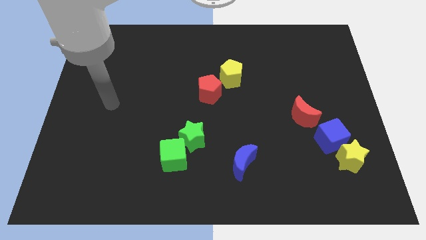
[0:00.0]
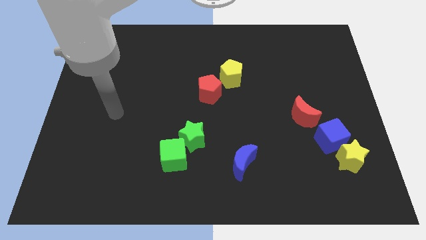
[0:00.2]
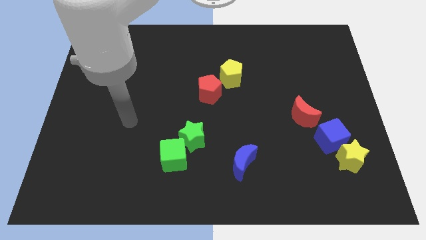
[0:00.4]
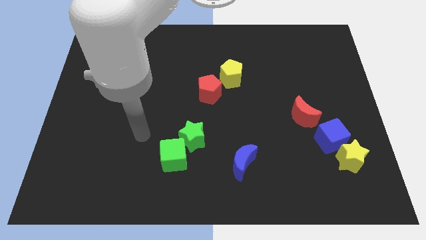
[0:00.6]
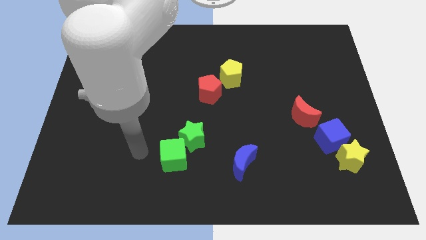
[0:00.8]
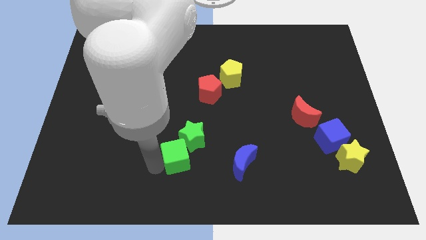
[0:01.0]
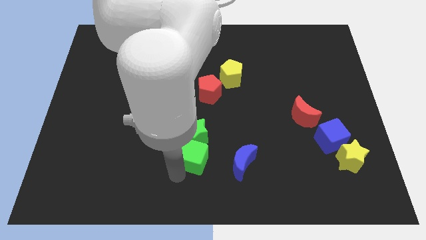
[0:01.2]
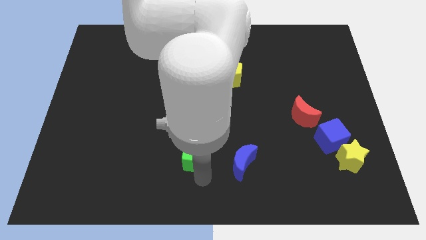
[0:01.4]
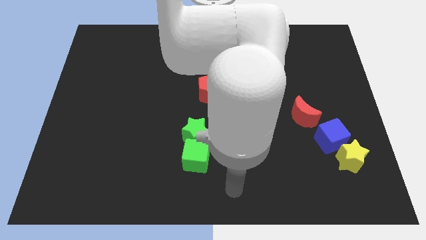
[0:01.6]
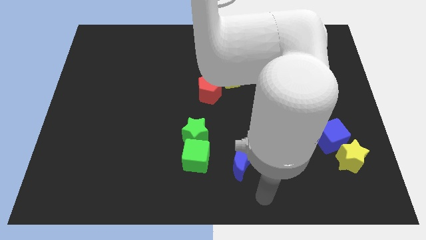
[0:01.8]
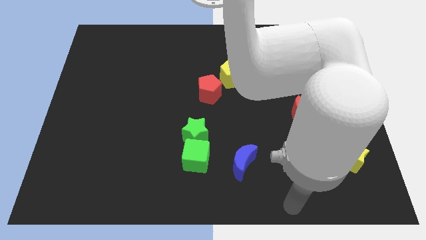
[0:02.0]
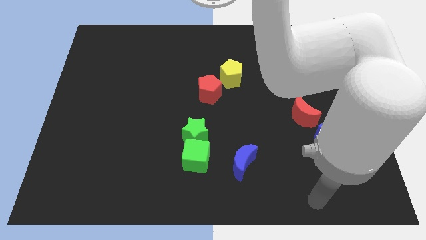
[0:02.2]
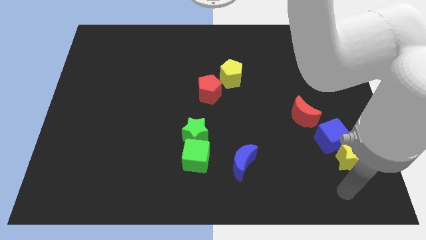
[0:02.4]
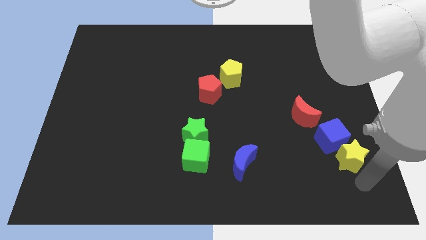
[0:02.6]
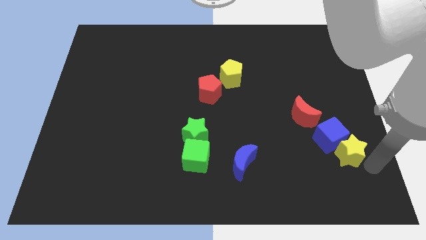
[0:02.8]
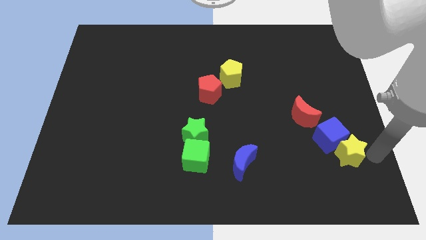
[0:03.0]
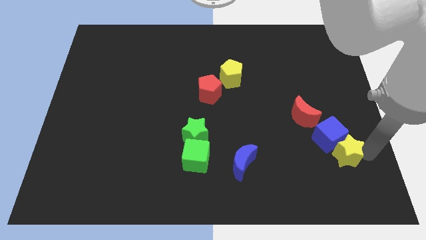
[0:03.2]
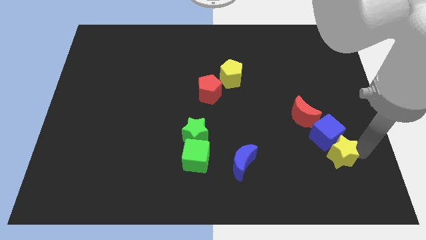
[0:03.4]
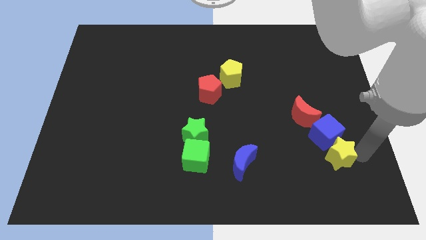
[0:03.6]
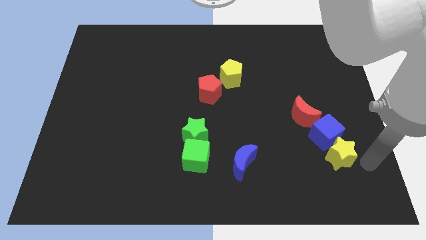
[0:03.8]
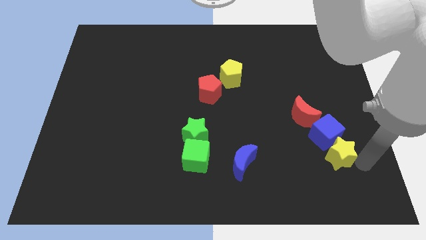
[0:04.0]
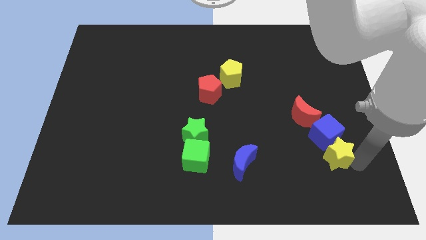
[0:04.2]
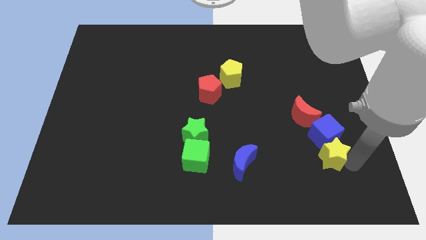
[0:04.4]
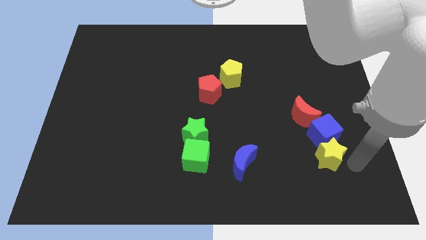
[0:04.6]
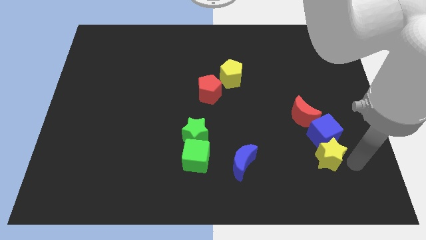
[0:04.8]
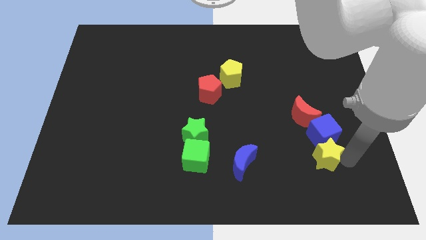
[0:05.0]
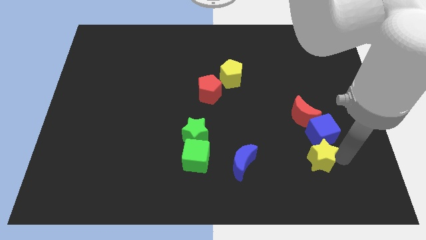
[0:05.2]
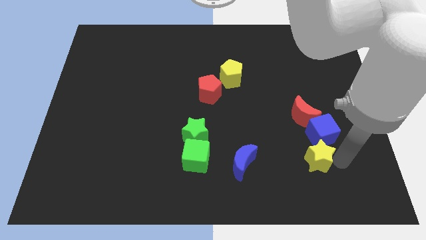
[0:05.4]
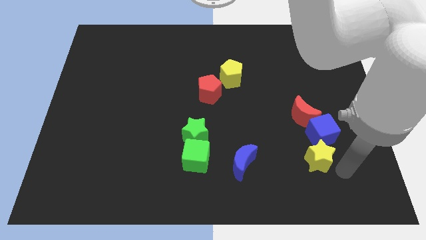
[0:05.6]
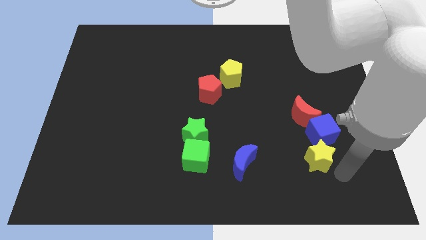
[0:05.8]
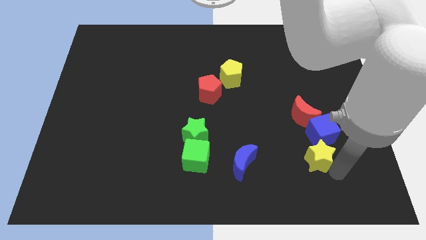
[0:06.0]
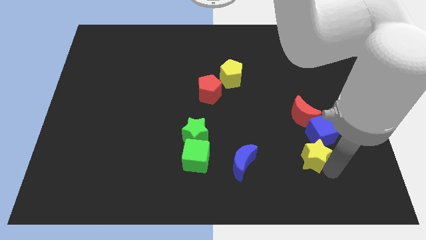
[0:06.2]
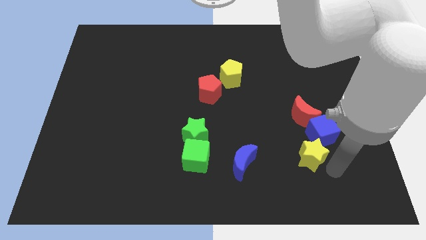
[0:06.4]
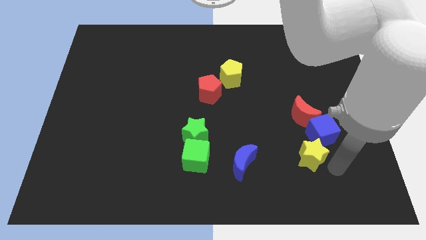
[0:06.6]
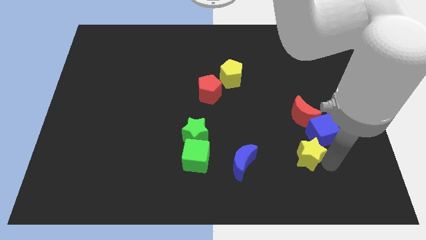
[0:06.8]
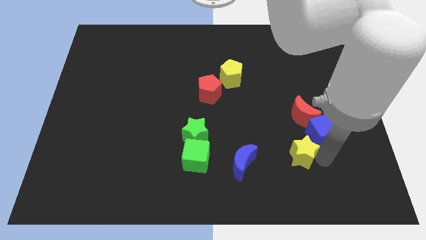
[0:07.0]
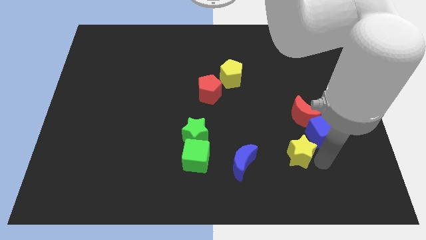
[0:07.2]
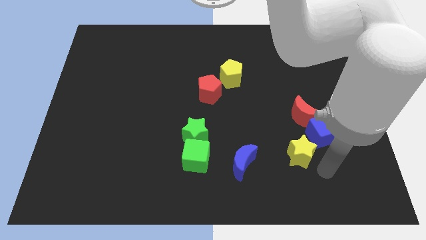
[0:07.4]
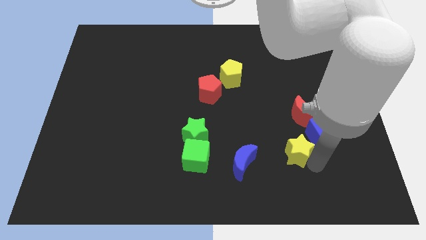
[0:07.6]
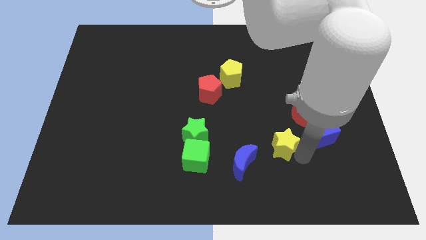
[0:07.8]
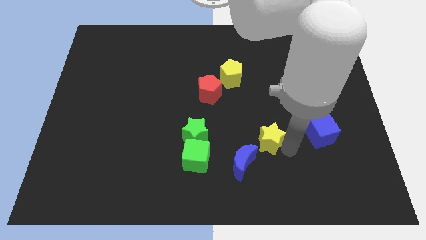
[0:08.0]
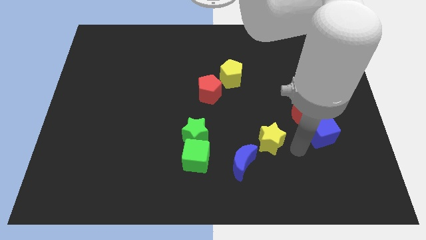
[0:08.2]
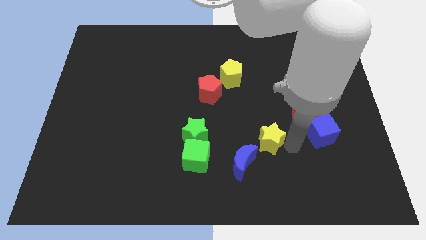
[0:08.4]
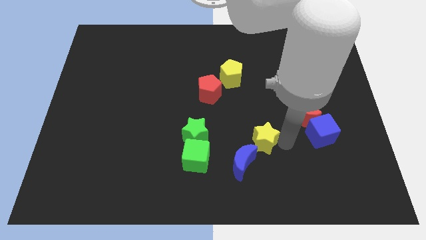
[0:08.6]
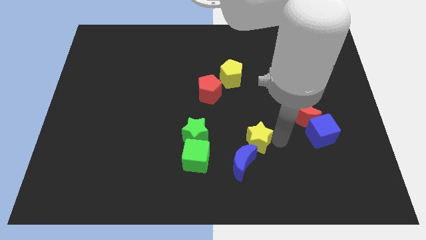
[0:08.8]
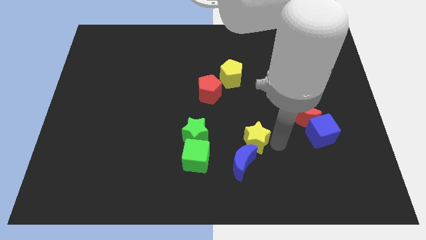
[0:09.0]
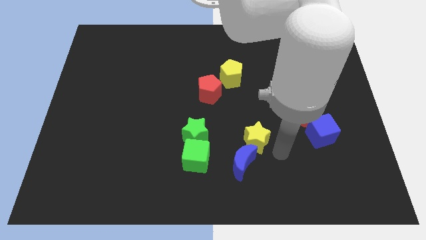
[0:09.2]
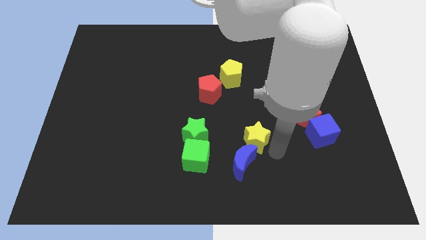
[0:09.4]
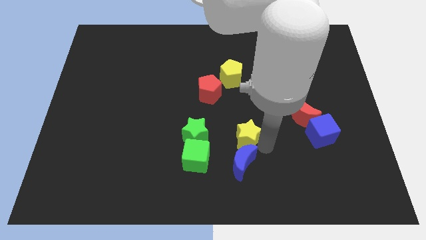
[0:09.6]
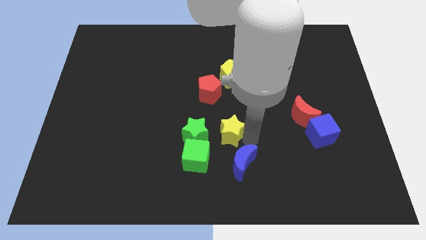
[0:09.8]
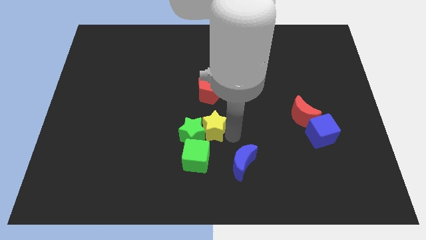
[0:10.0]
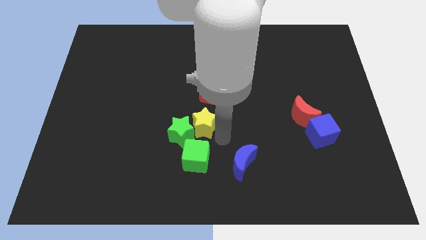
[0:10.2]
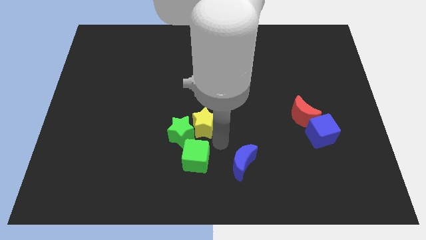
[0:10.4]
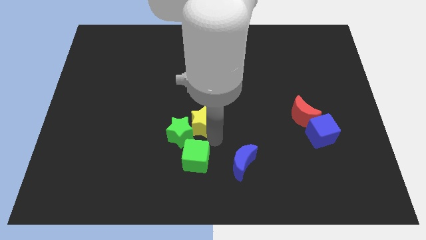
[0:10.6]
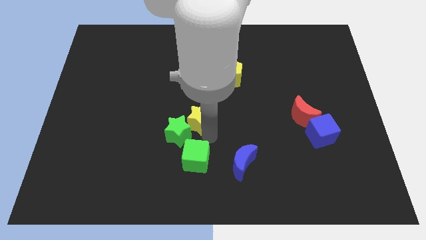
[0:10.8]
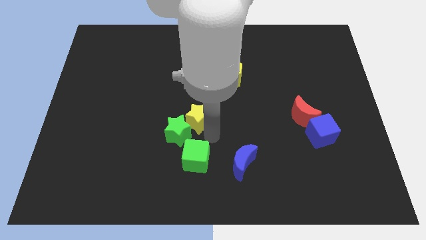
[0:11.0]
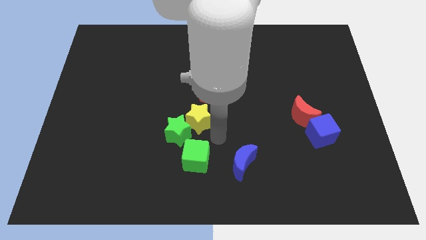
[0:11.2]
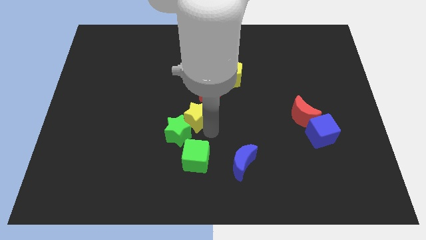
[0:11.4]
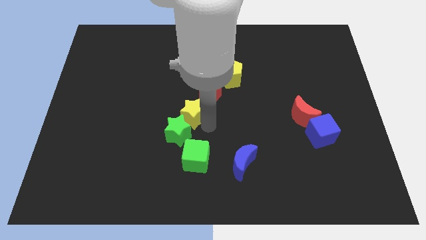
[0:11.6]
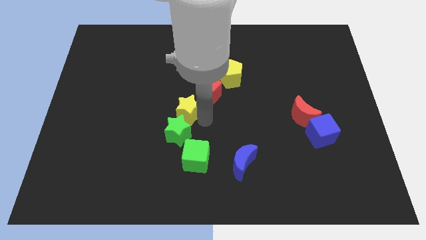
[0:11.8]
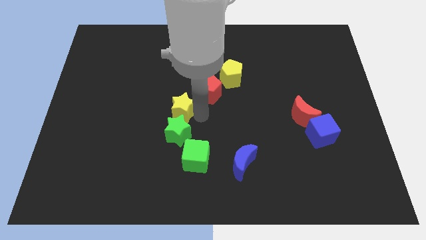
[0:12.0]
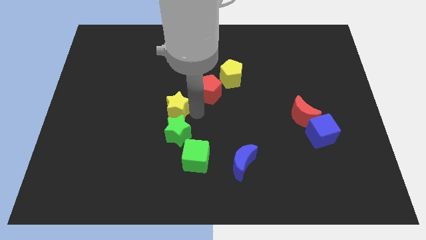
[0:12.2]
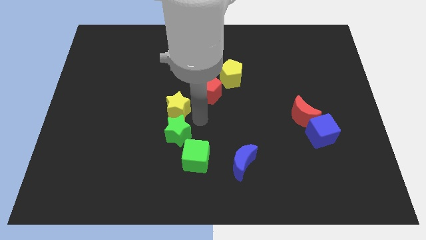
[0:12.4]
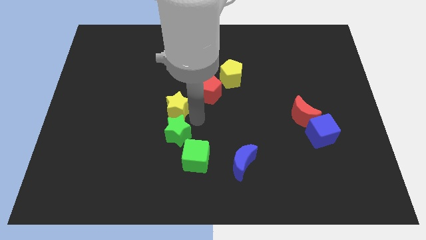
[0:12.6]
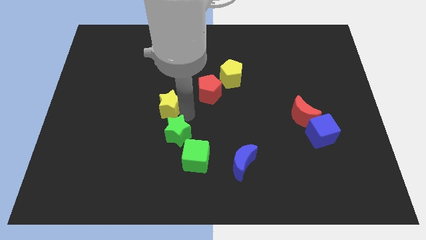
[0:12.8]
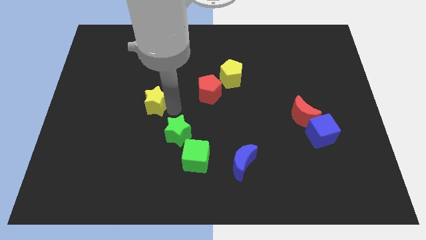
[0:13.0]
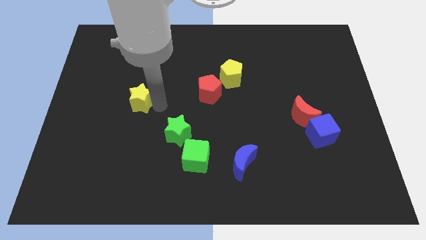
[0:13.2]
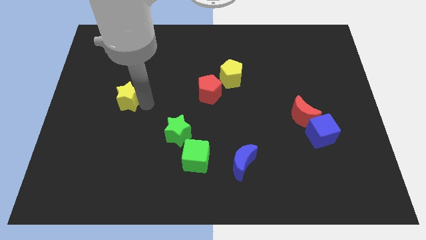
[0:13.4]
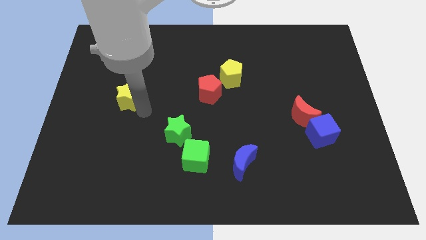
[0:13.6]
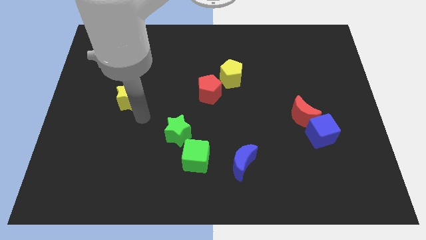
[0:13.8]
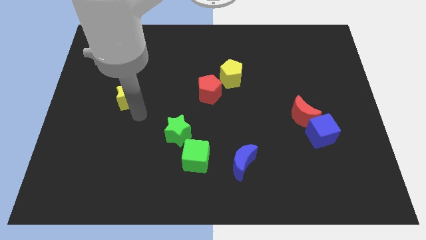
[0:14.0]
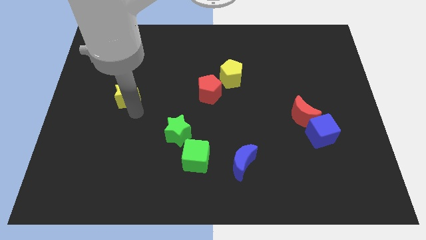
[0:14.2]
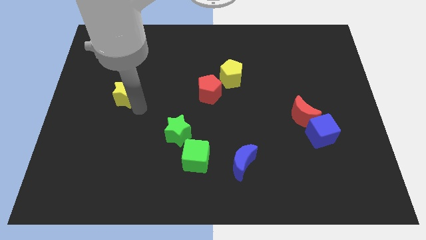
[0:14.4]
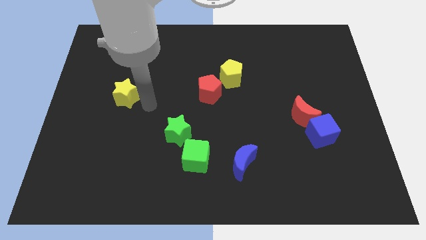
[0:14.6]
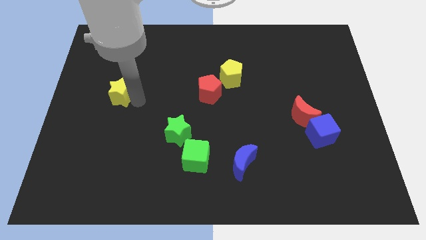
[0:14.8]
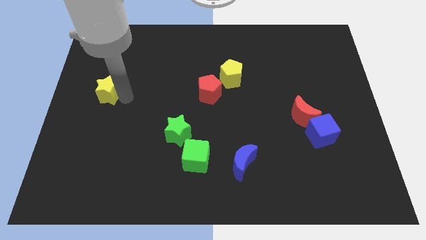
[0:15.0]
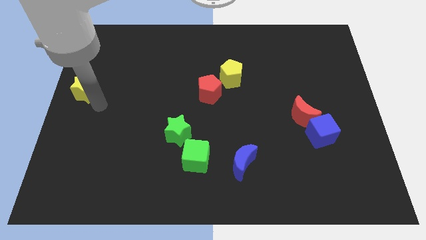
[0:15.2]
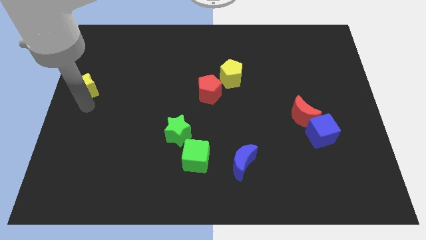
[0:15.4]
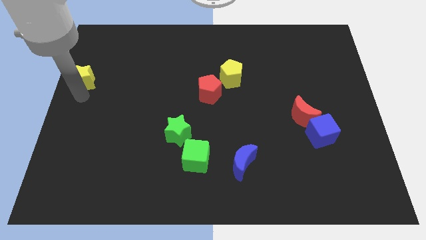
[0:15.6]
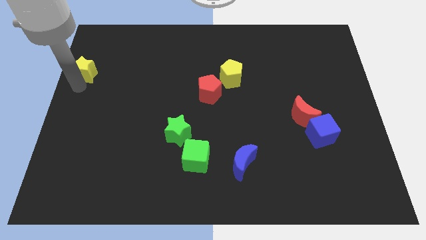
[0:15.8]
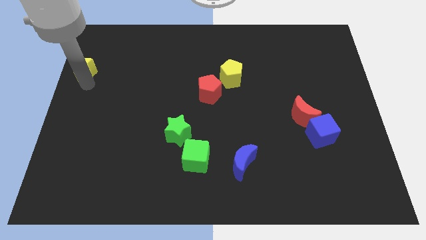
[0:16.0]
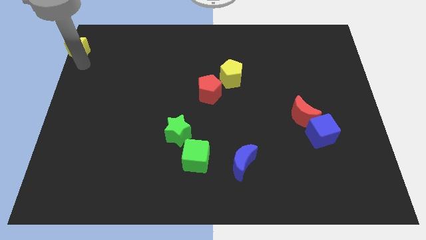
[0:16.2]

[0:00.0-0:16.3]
push the yellow star to the top left
